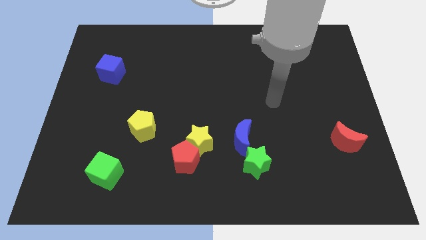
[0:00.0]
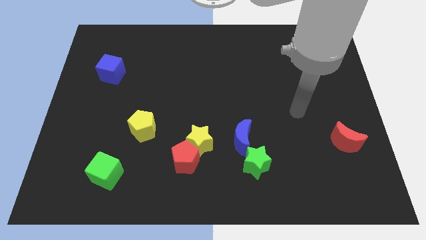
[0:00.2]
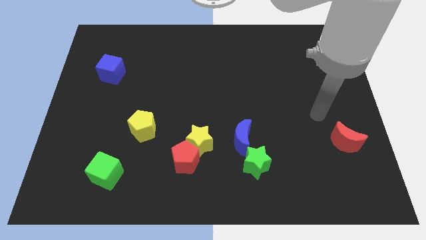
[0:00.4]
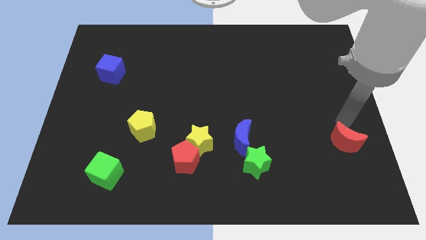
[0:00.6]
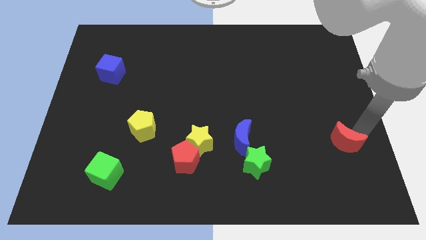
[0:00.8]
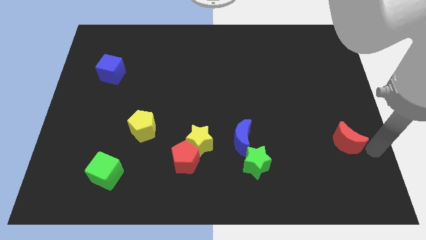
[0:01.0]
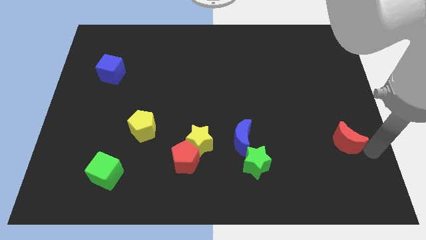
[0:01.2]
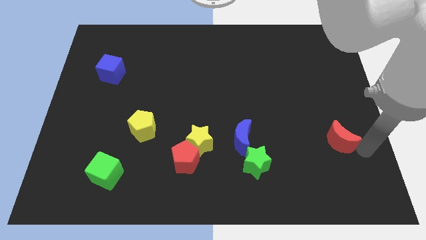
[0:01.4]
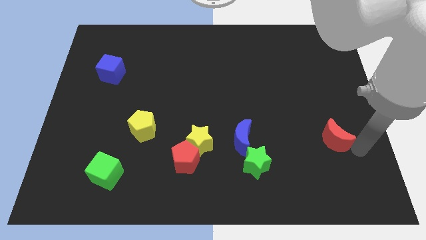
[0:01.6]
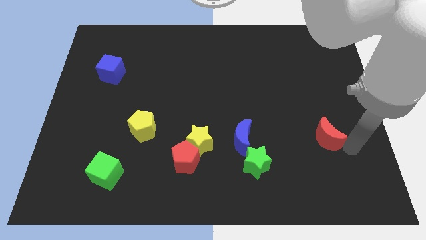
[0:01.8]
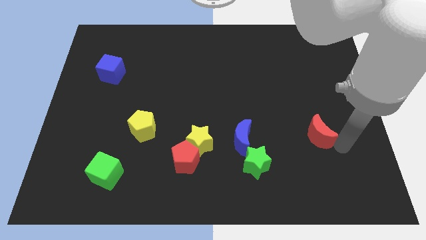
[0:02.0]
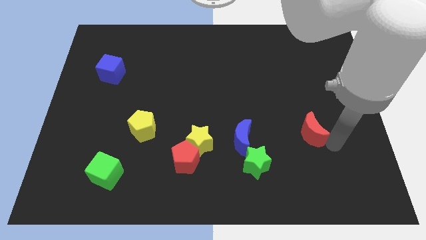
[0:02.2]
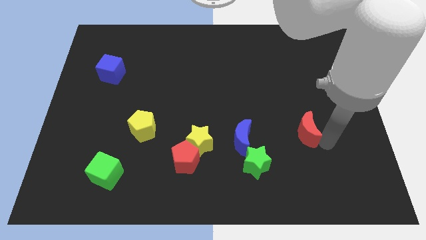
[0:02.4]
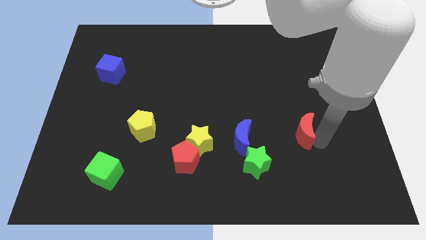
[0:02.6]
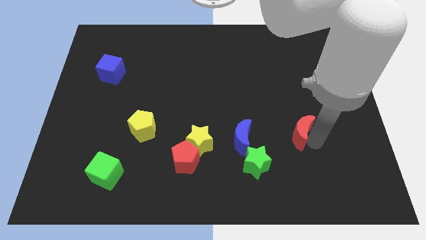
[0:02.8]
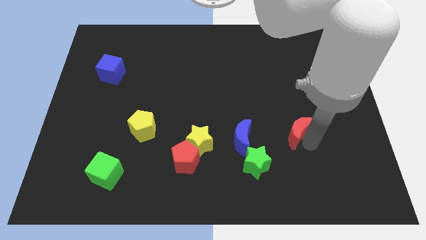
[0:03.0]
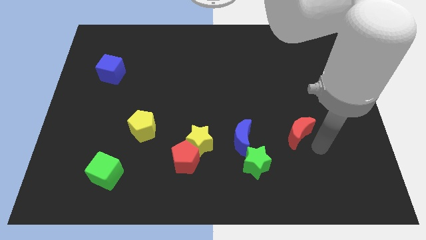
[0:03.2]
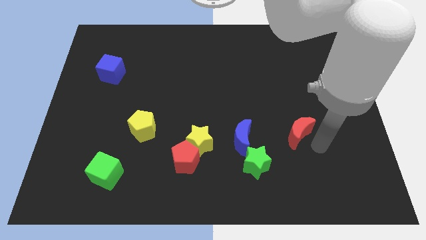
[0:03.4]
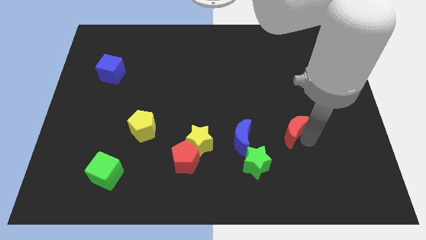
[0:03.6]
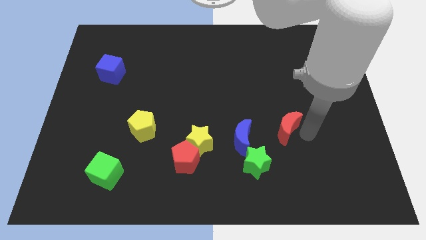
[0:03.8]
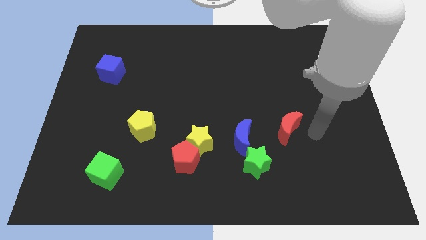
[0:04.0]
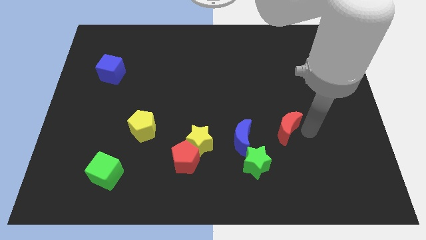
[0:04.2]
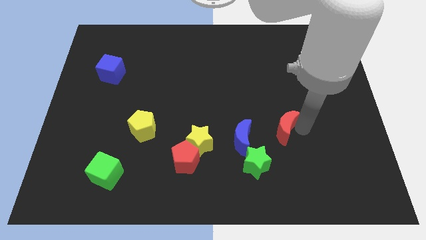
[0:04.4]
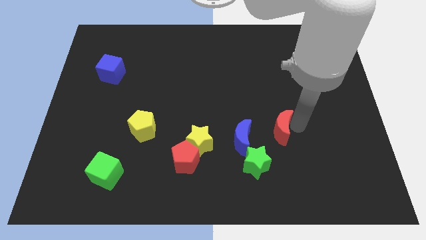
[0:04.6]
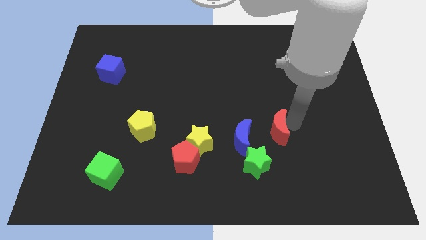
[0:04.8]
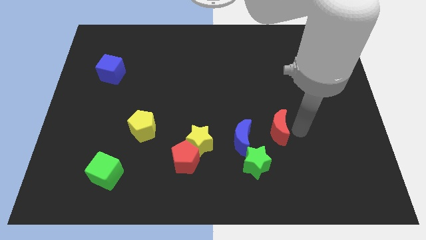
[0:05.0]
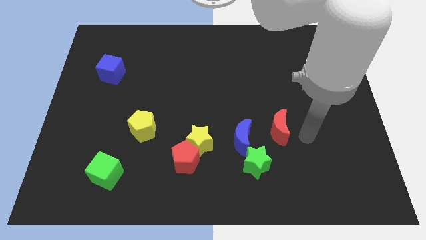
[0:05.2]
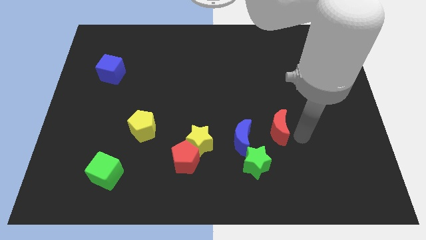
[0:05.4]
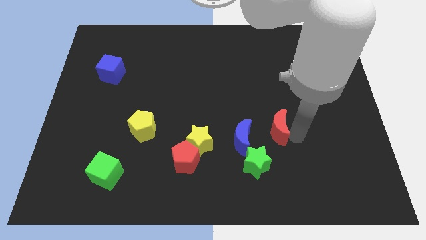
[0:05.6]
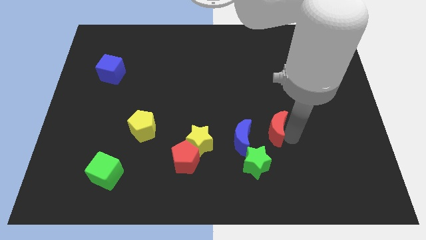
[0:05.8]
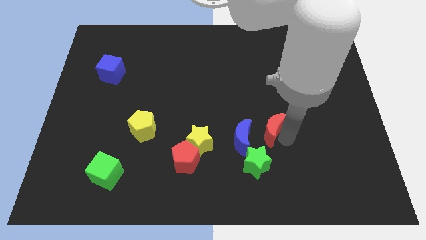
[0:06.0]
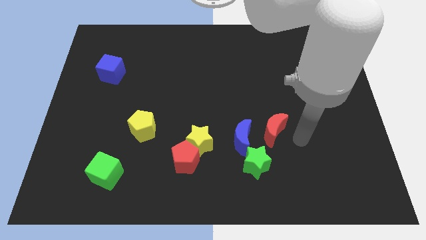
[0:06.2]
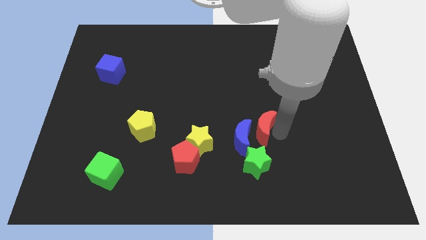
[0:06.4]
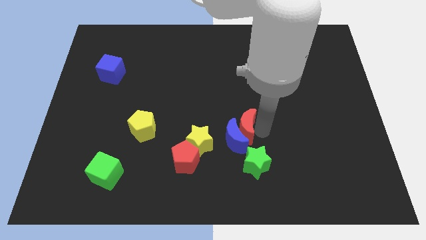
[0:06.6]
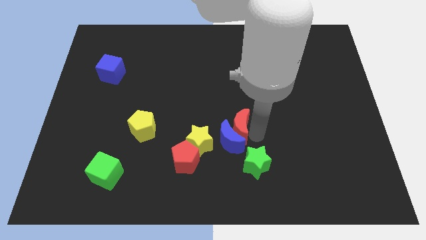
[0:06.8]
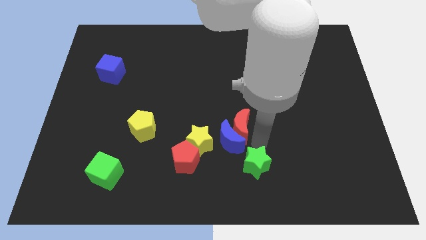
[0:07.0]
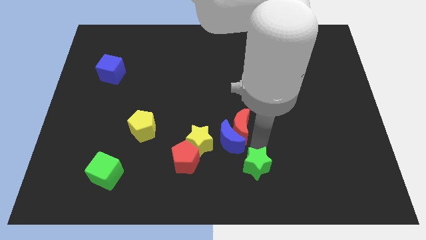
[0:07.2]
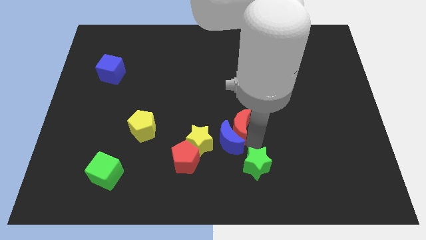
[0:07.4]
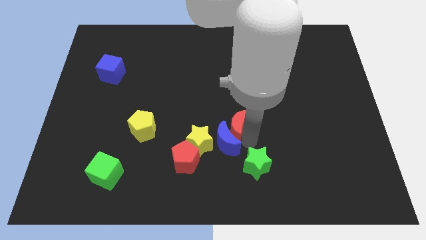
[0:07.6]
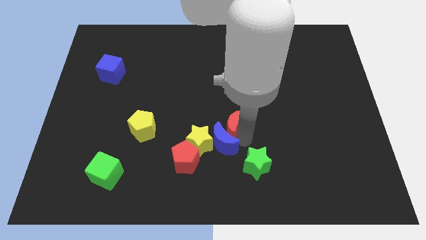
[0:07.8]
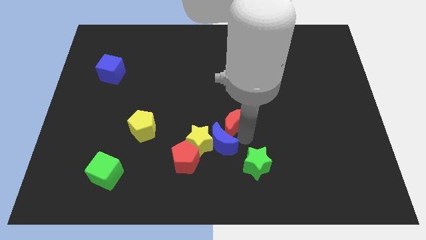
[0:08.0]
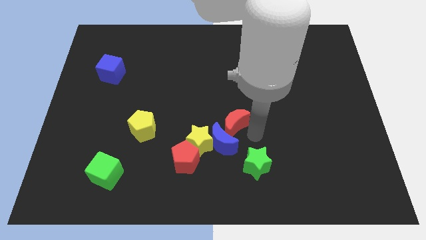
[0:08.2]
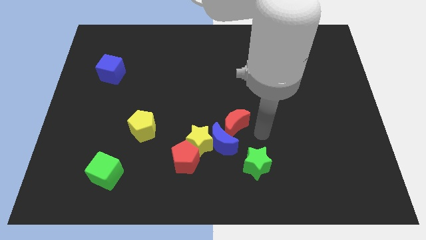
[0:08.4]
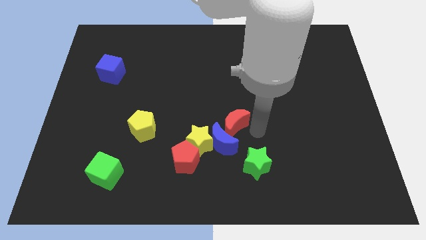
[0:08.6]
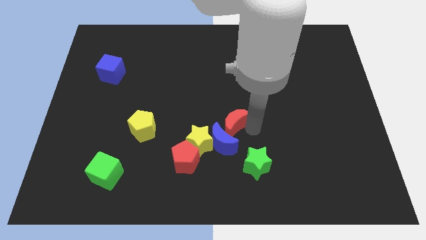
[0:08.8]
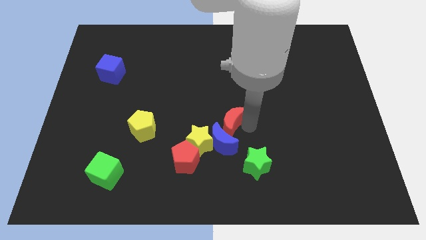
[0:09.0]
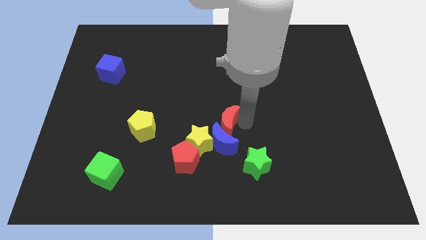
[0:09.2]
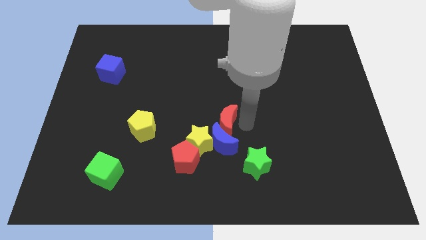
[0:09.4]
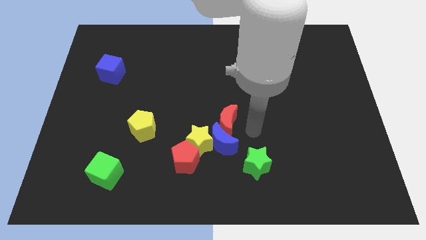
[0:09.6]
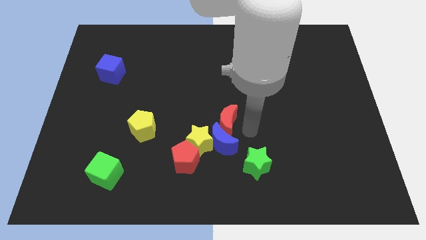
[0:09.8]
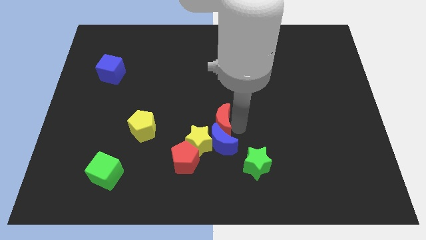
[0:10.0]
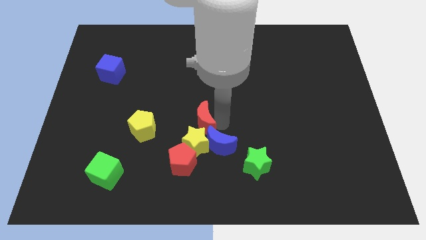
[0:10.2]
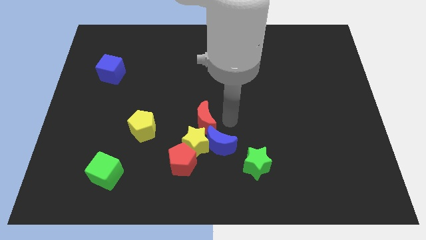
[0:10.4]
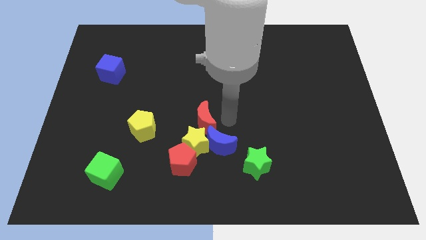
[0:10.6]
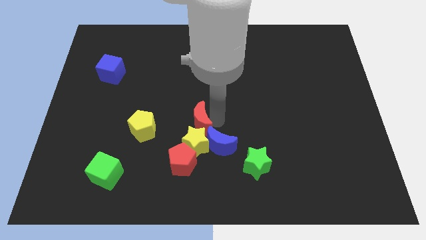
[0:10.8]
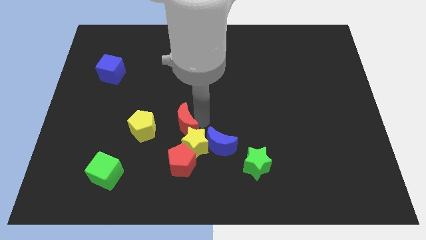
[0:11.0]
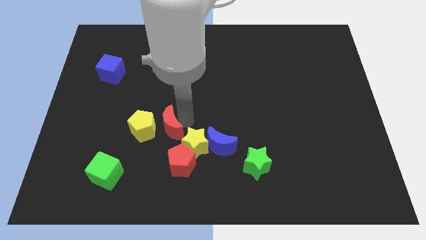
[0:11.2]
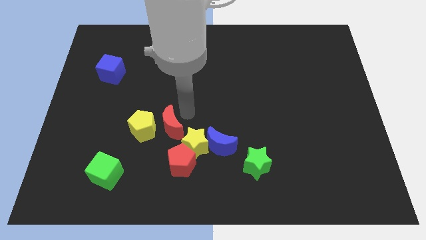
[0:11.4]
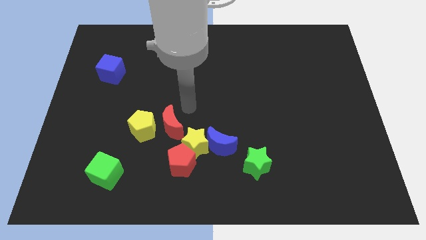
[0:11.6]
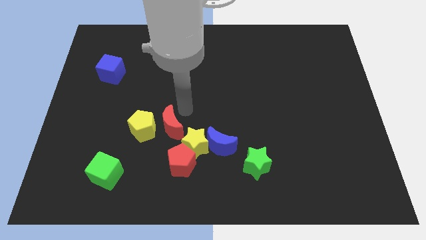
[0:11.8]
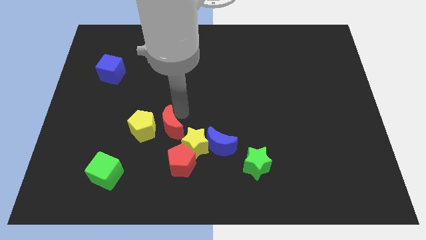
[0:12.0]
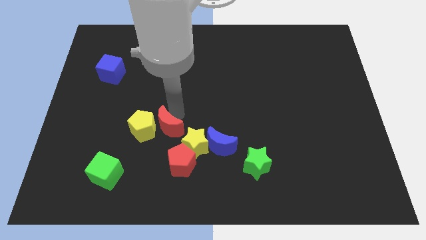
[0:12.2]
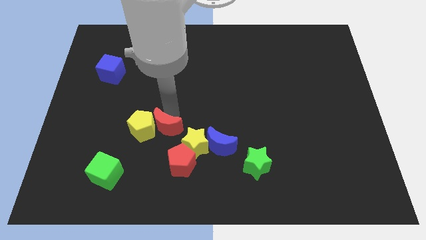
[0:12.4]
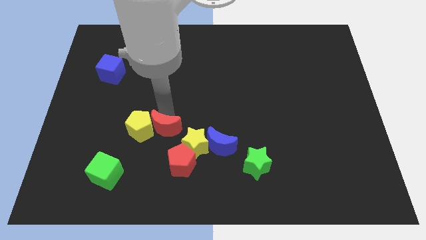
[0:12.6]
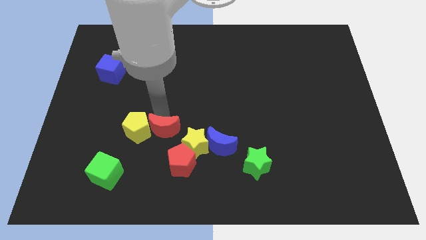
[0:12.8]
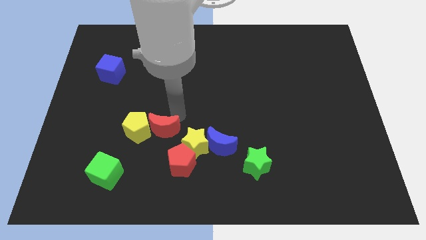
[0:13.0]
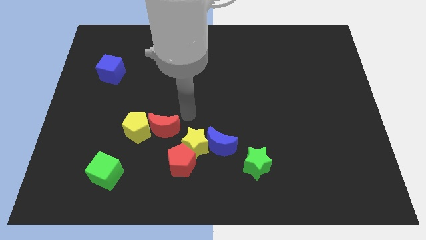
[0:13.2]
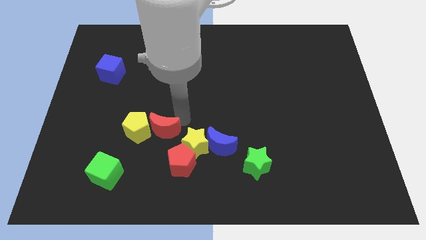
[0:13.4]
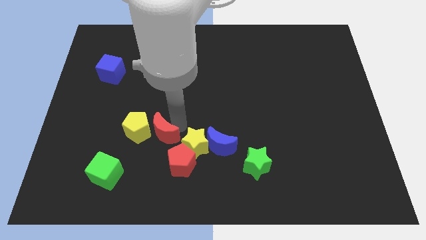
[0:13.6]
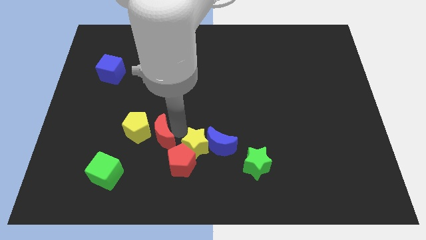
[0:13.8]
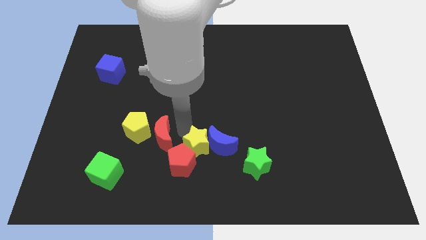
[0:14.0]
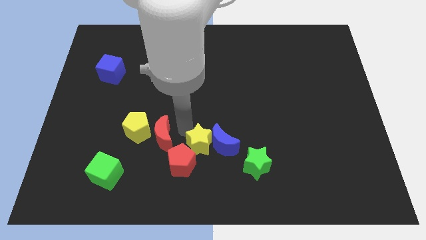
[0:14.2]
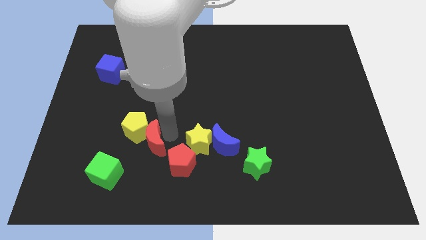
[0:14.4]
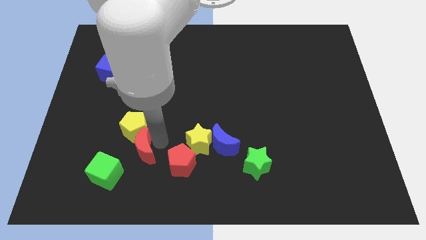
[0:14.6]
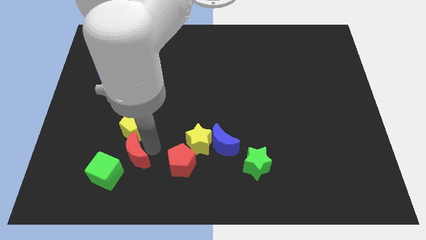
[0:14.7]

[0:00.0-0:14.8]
put the red moon to the bottom left of the yellow pentagon

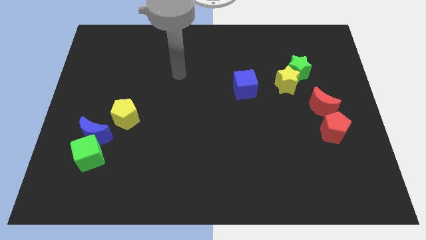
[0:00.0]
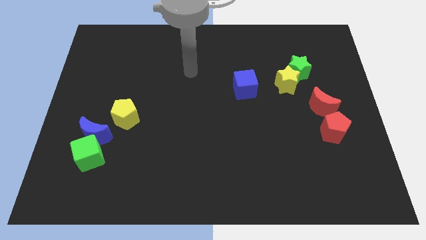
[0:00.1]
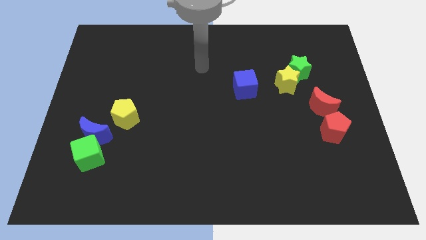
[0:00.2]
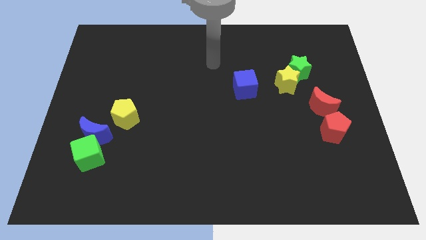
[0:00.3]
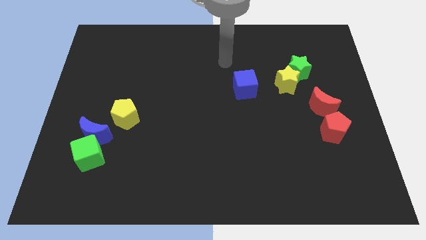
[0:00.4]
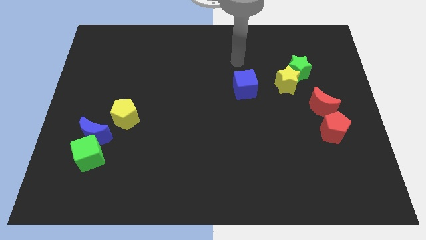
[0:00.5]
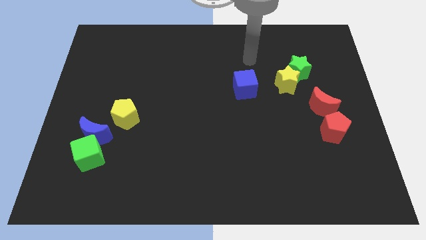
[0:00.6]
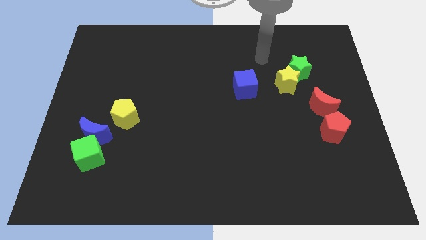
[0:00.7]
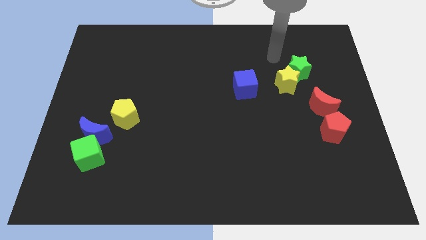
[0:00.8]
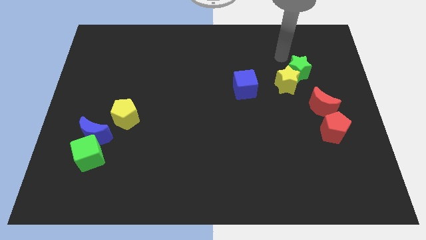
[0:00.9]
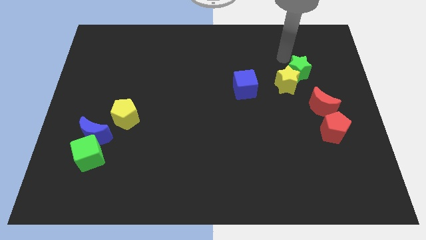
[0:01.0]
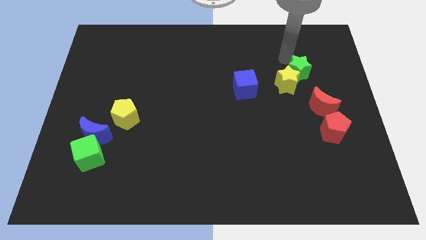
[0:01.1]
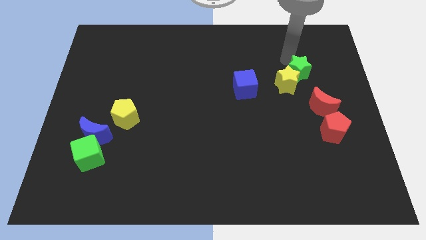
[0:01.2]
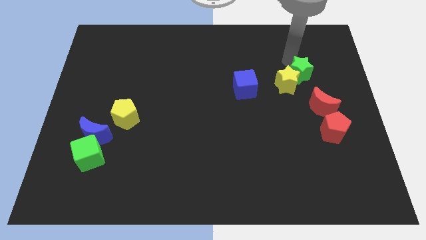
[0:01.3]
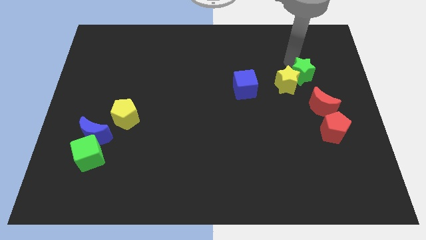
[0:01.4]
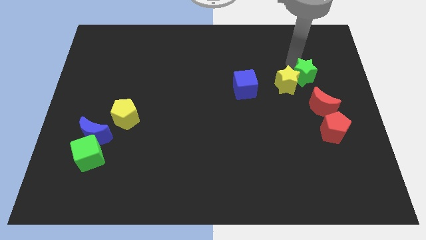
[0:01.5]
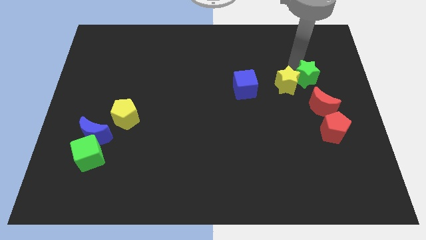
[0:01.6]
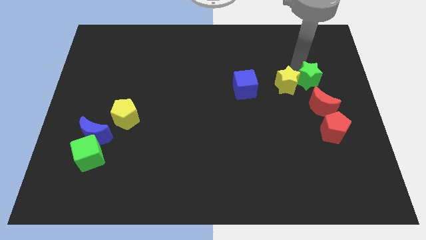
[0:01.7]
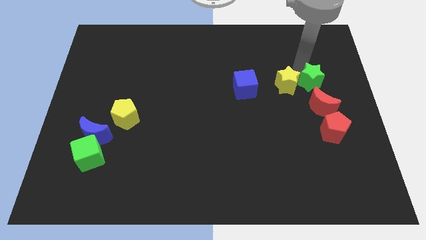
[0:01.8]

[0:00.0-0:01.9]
push the green star above the red pentagon
